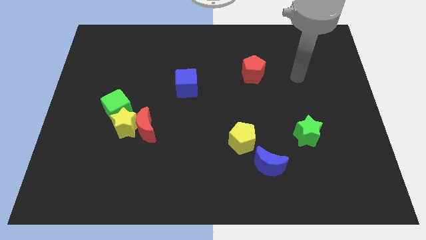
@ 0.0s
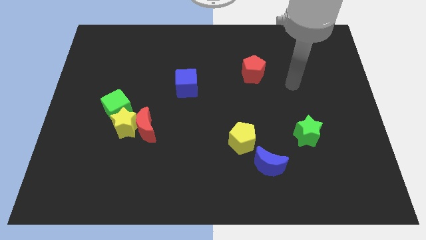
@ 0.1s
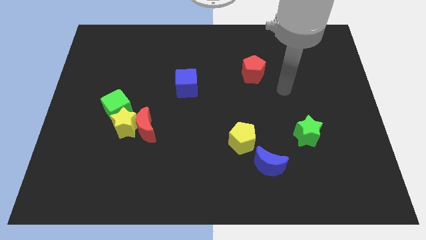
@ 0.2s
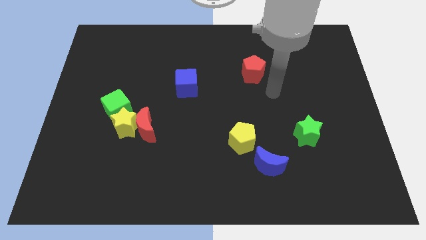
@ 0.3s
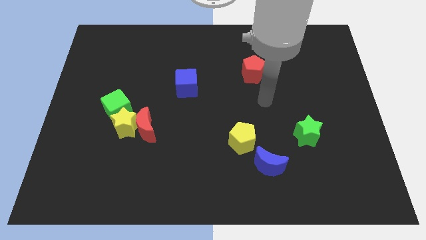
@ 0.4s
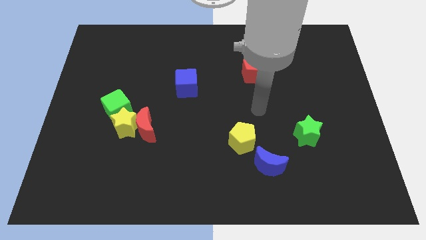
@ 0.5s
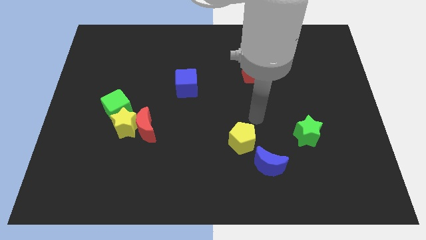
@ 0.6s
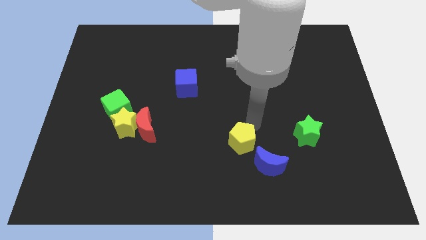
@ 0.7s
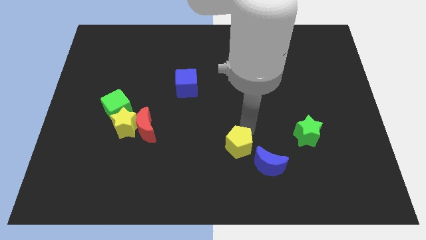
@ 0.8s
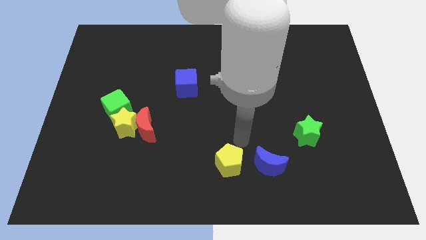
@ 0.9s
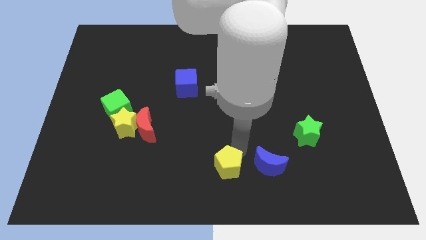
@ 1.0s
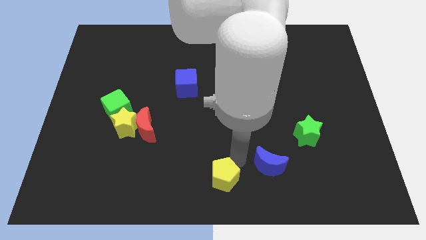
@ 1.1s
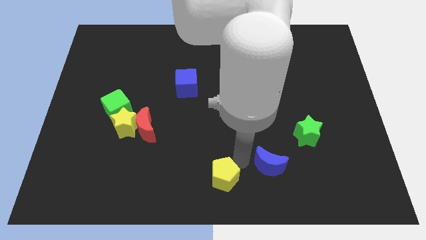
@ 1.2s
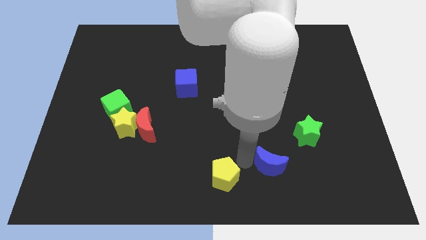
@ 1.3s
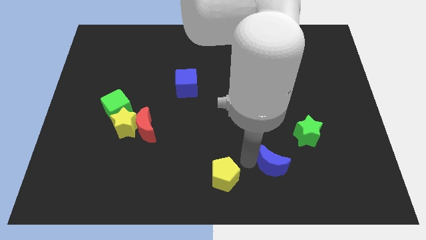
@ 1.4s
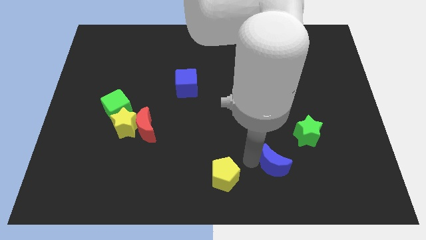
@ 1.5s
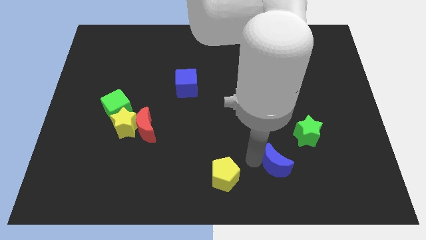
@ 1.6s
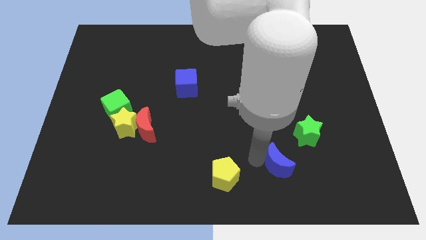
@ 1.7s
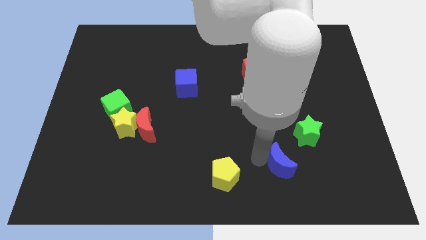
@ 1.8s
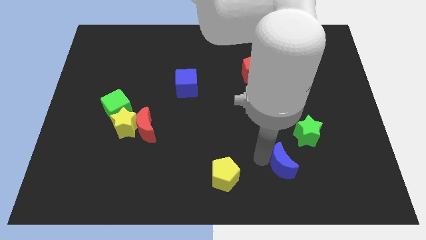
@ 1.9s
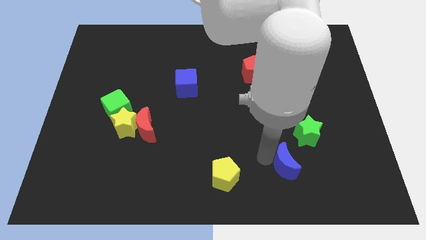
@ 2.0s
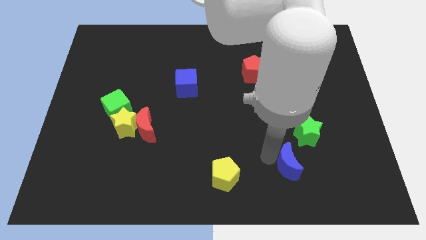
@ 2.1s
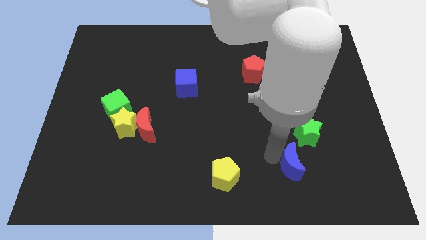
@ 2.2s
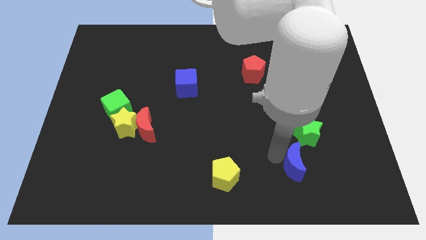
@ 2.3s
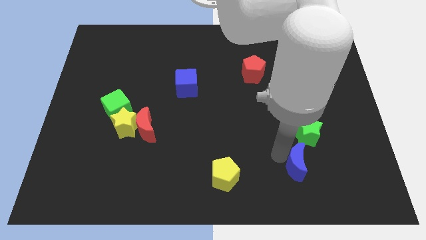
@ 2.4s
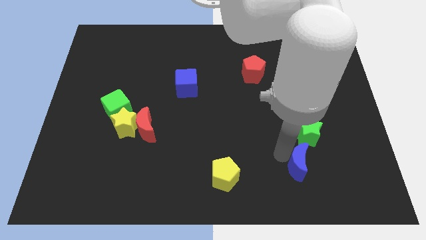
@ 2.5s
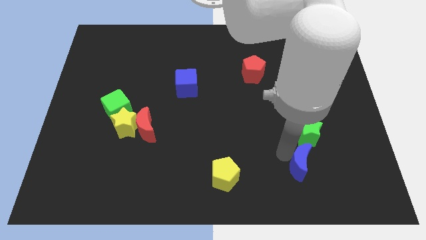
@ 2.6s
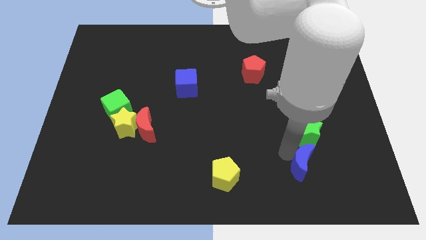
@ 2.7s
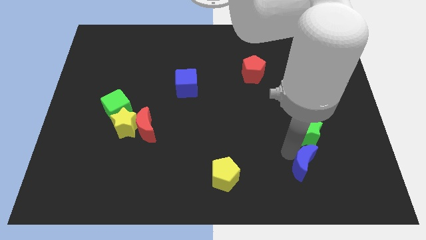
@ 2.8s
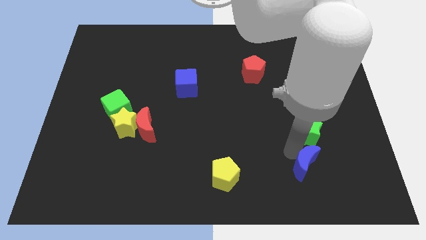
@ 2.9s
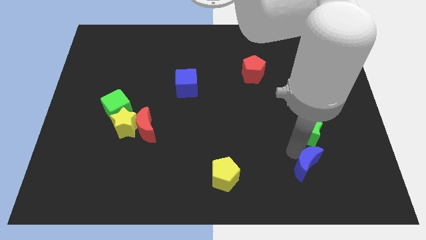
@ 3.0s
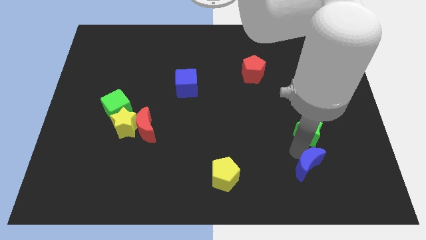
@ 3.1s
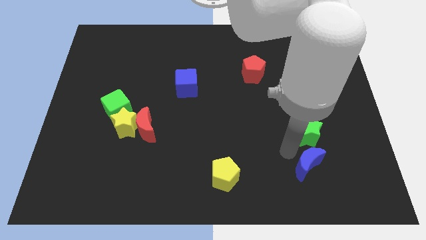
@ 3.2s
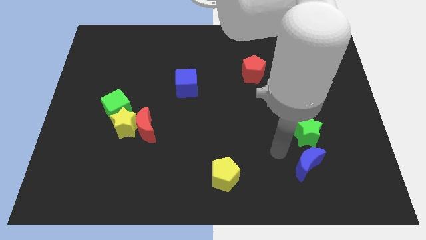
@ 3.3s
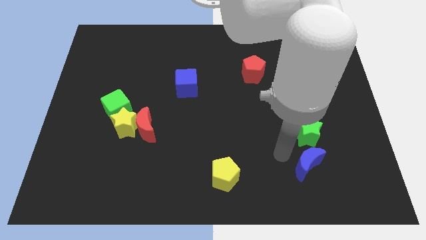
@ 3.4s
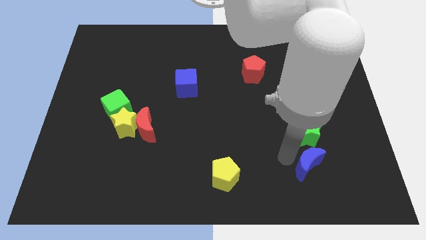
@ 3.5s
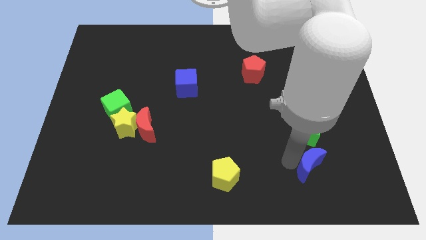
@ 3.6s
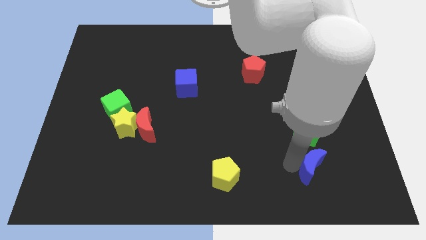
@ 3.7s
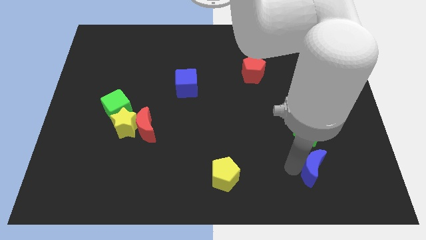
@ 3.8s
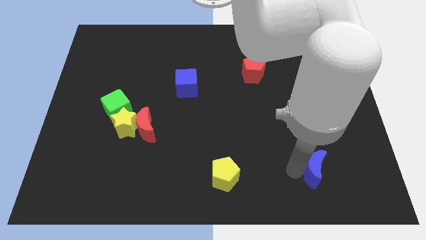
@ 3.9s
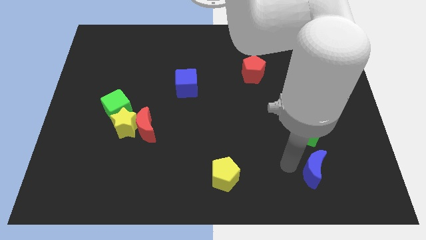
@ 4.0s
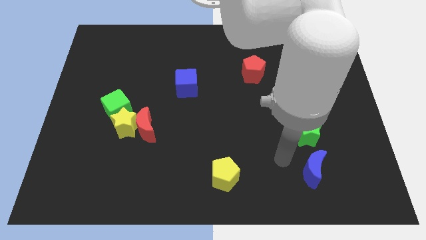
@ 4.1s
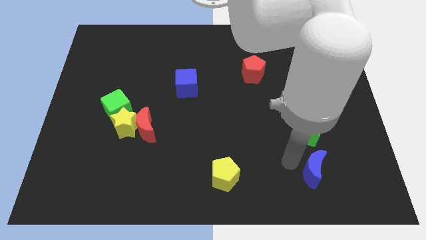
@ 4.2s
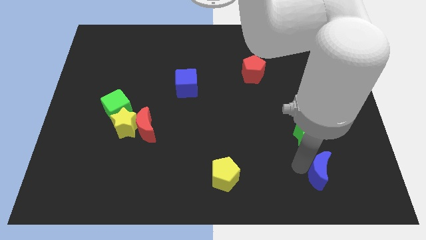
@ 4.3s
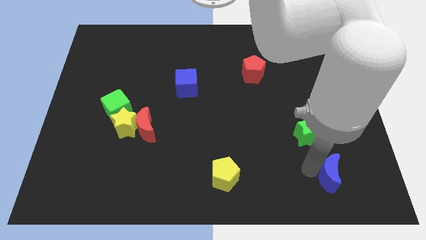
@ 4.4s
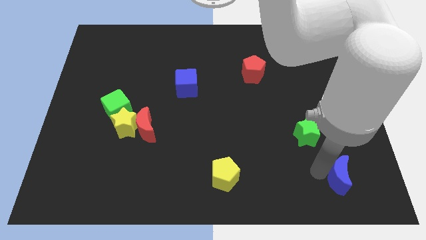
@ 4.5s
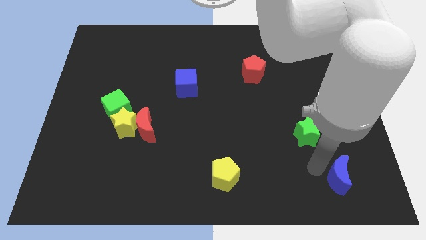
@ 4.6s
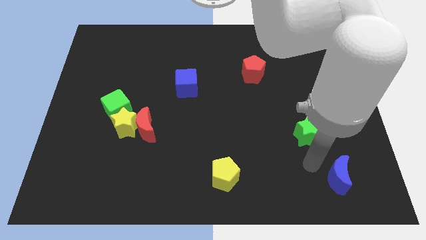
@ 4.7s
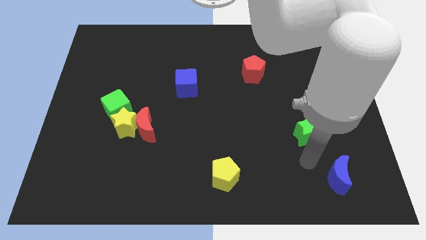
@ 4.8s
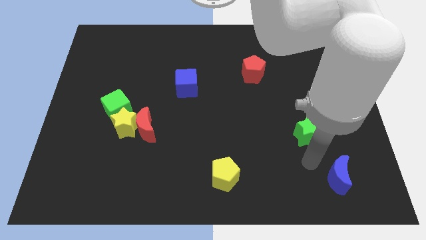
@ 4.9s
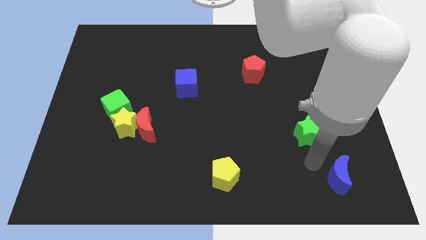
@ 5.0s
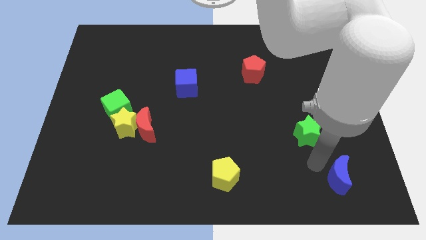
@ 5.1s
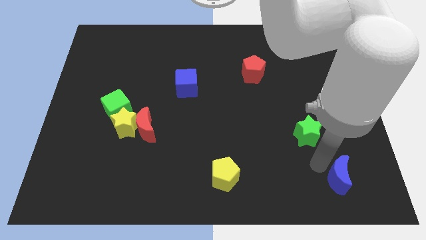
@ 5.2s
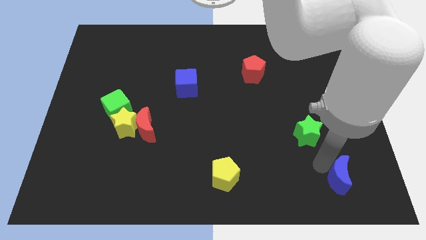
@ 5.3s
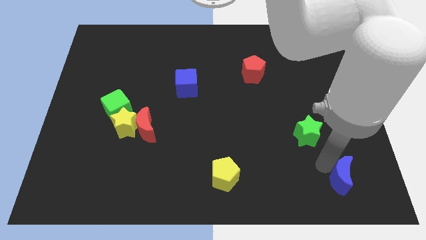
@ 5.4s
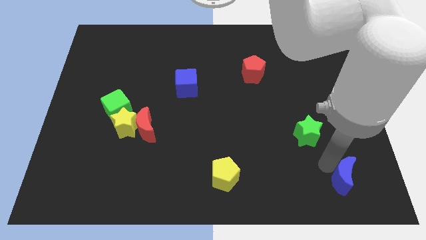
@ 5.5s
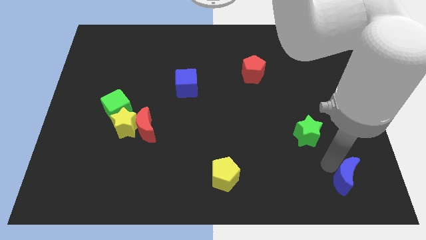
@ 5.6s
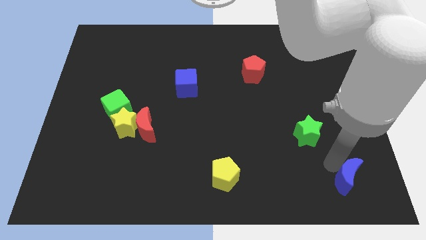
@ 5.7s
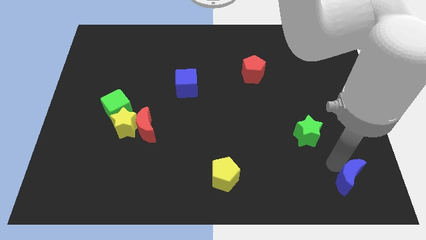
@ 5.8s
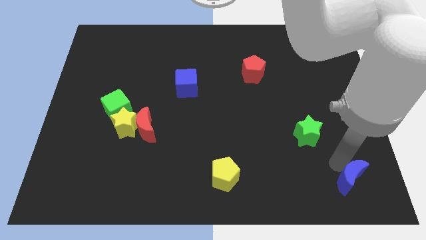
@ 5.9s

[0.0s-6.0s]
push the blue moon to the bottom right
